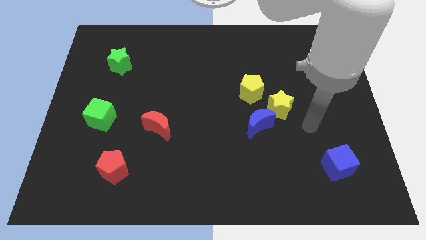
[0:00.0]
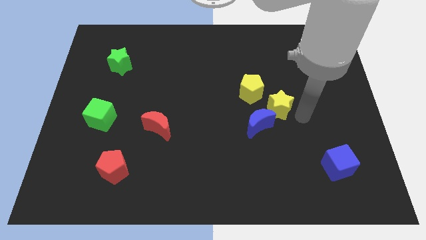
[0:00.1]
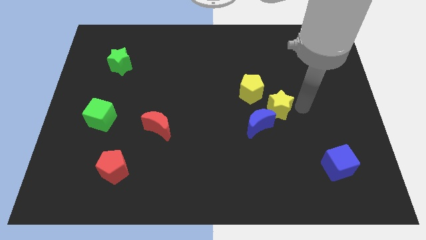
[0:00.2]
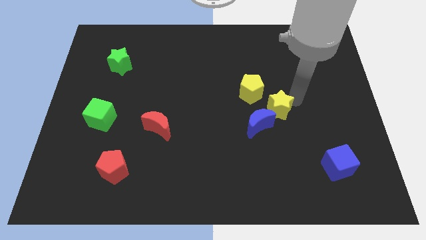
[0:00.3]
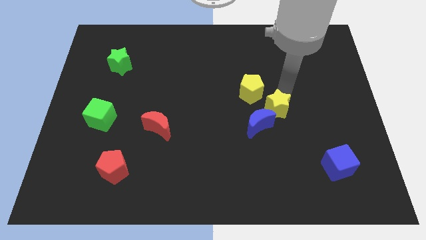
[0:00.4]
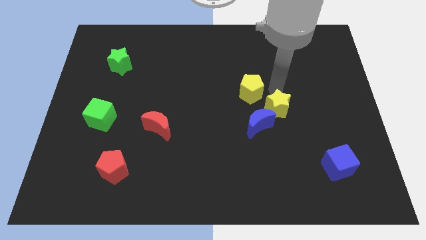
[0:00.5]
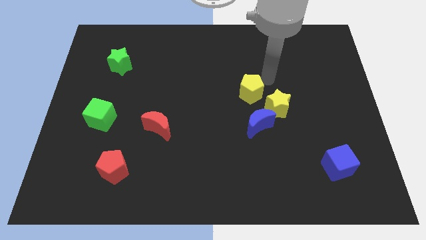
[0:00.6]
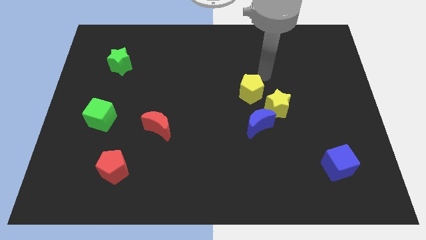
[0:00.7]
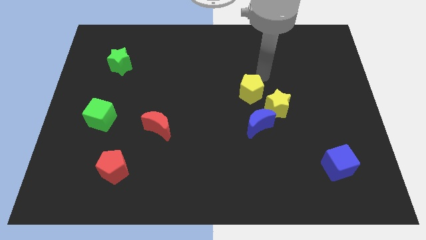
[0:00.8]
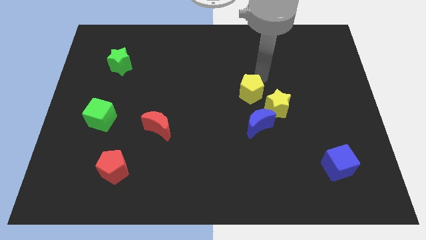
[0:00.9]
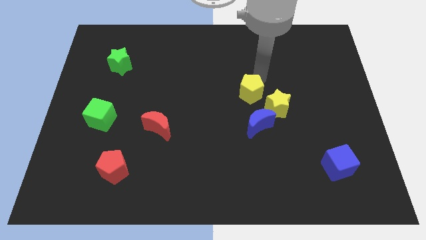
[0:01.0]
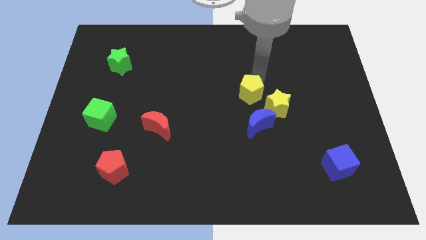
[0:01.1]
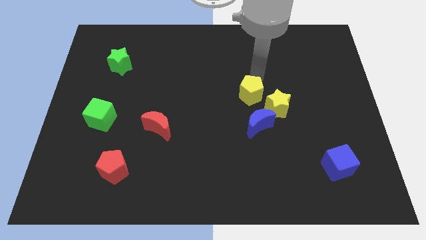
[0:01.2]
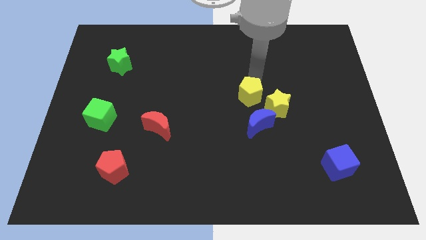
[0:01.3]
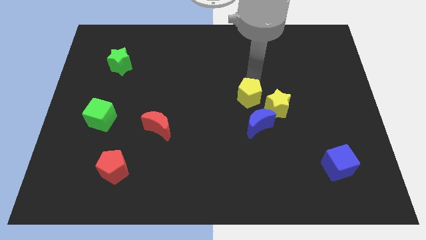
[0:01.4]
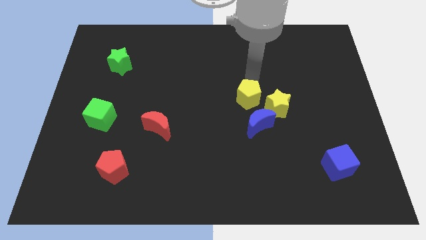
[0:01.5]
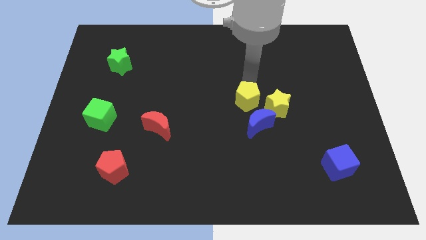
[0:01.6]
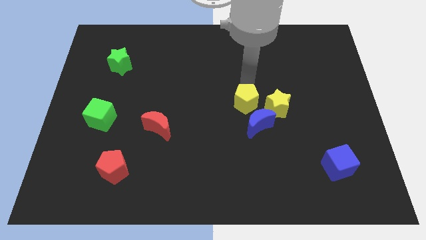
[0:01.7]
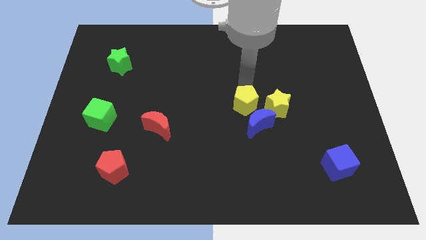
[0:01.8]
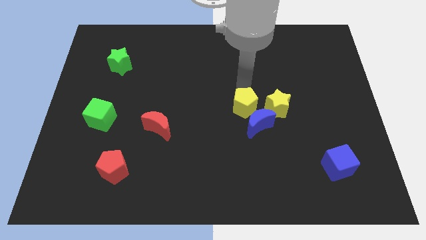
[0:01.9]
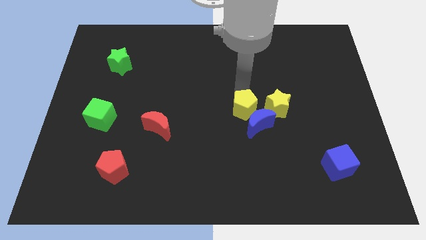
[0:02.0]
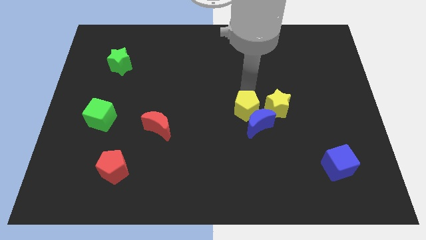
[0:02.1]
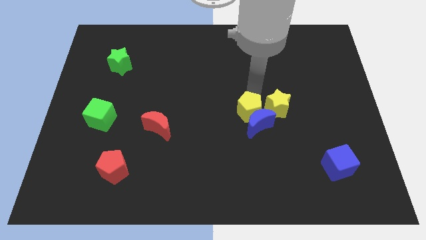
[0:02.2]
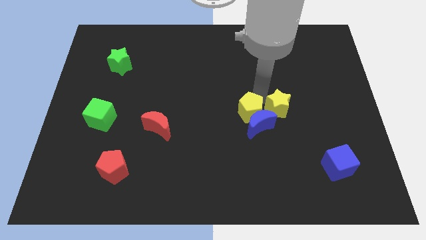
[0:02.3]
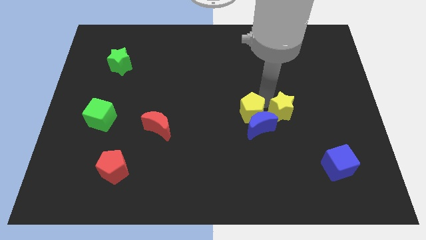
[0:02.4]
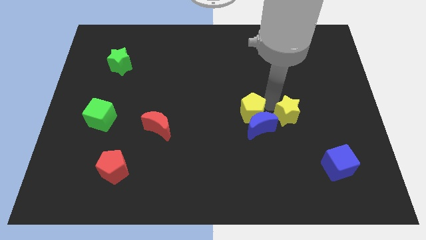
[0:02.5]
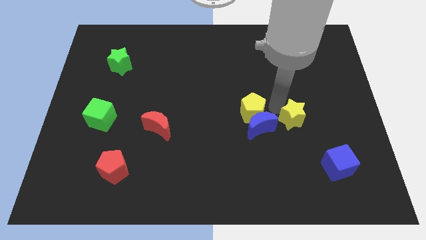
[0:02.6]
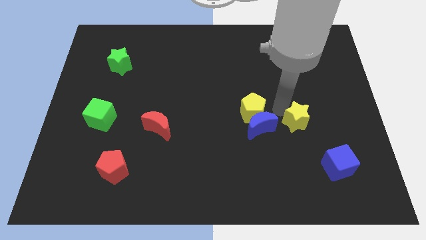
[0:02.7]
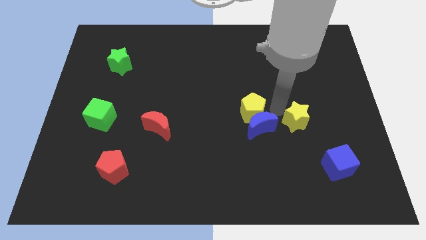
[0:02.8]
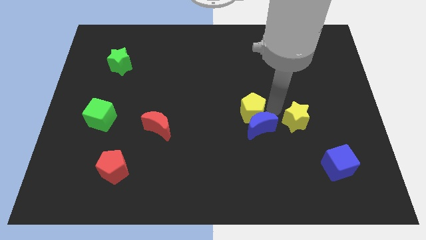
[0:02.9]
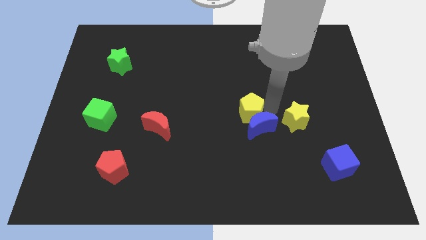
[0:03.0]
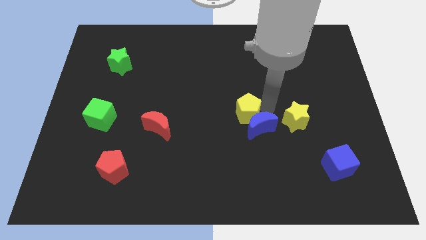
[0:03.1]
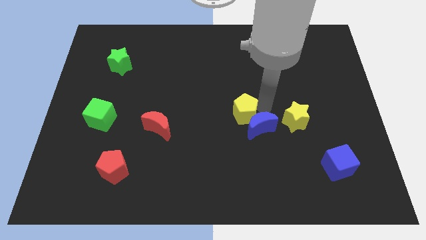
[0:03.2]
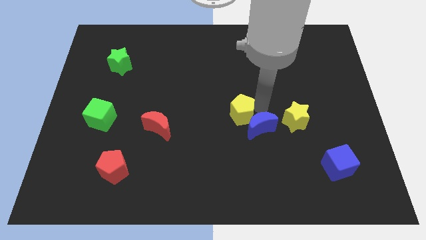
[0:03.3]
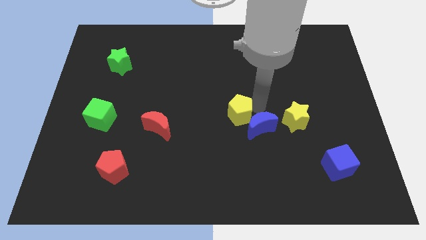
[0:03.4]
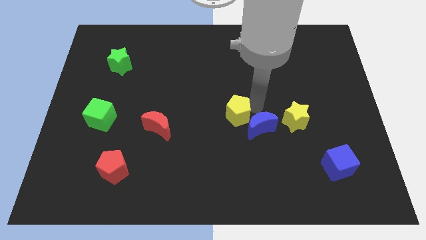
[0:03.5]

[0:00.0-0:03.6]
move the yellow pentagon down and to the left somewhat

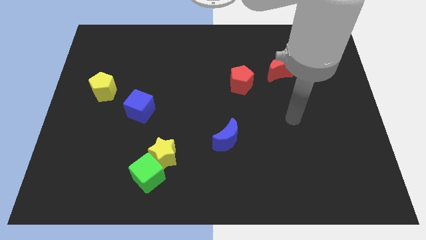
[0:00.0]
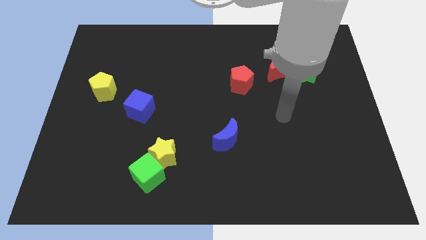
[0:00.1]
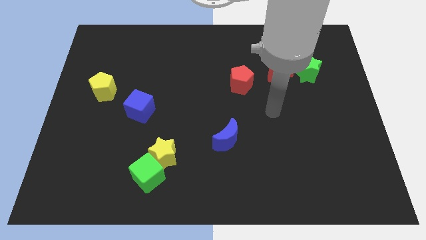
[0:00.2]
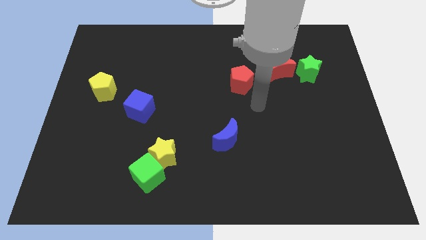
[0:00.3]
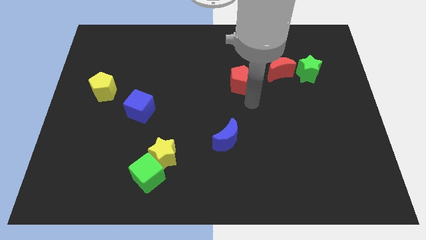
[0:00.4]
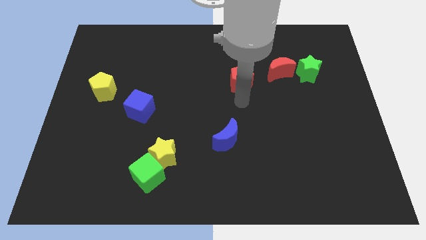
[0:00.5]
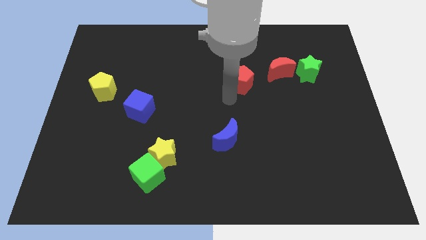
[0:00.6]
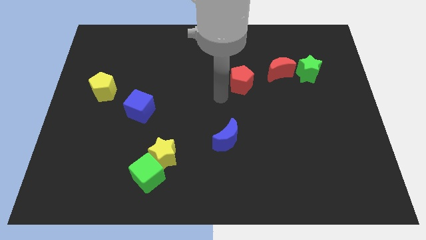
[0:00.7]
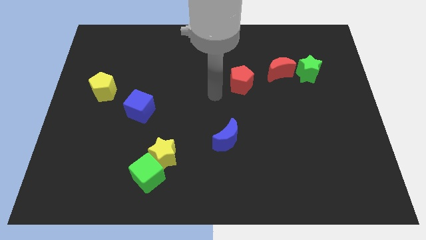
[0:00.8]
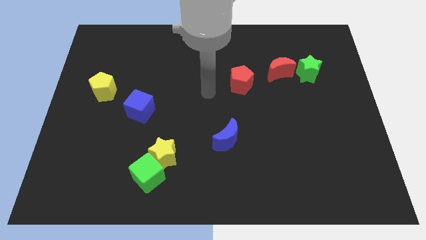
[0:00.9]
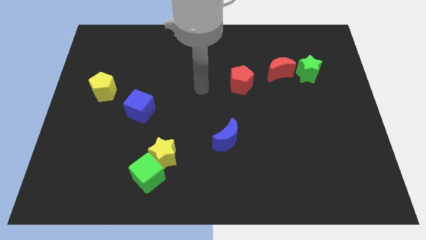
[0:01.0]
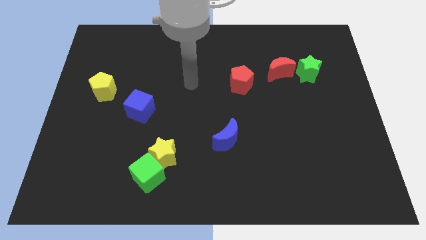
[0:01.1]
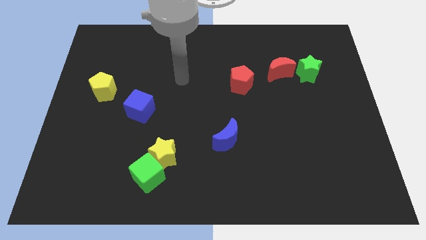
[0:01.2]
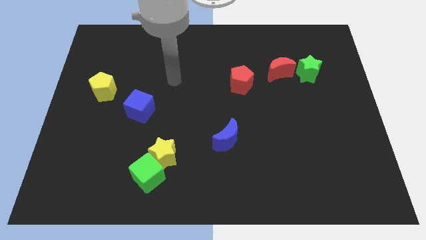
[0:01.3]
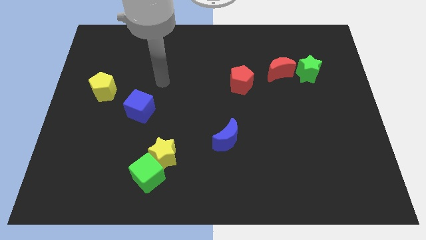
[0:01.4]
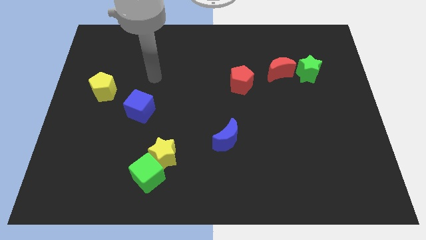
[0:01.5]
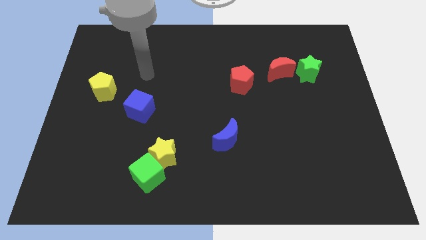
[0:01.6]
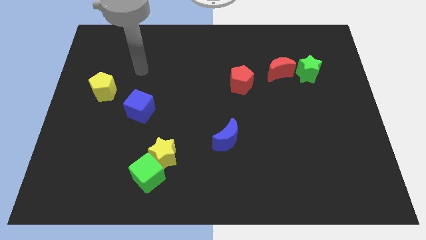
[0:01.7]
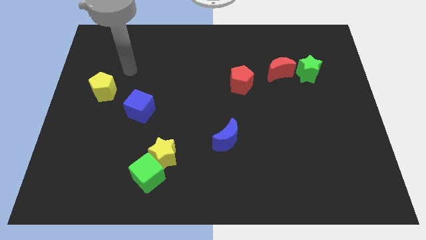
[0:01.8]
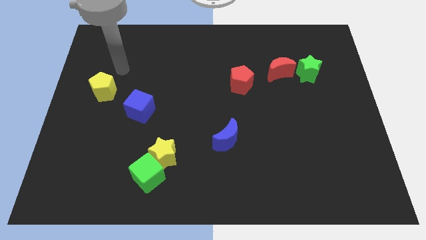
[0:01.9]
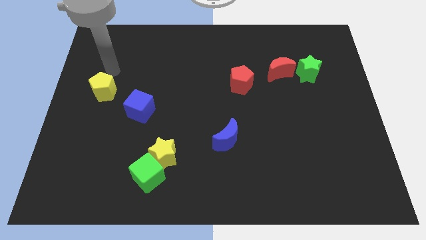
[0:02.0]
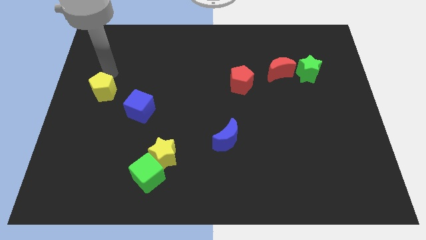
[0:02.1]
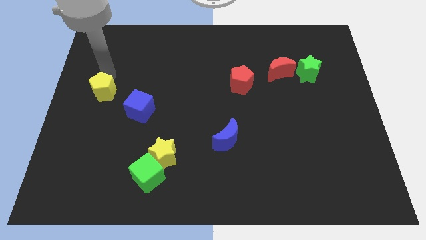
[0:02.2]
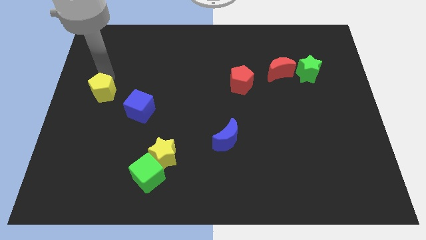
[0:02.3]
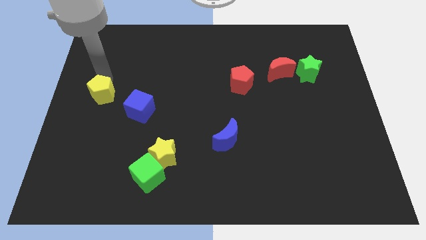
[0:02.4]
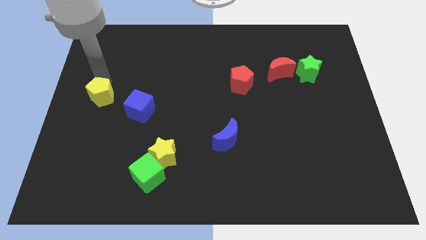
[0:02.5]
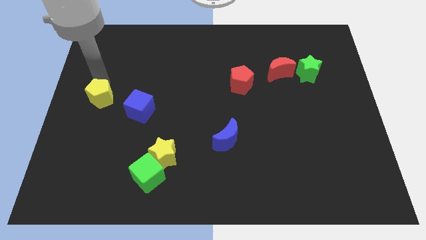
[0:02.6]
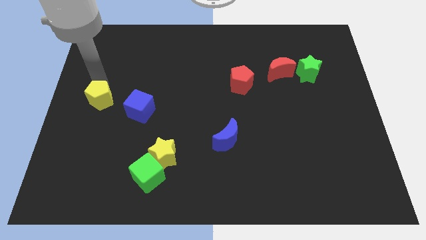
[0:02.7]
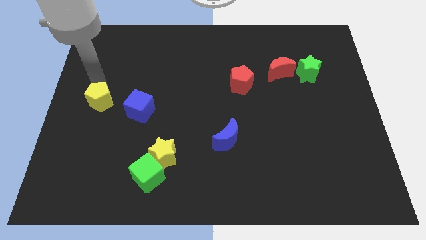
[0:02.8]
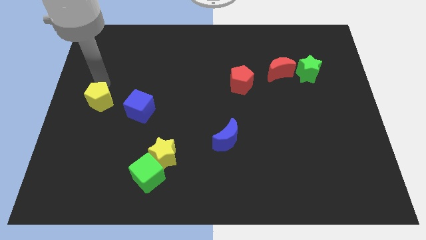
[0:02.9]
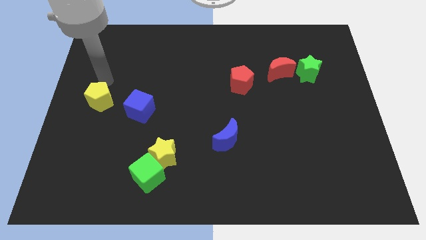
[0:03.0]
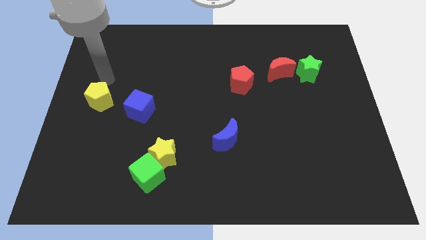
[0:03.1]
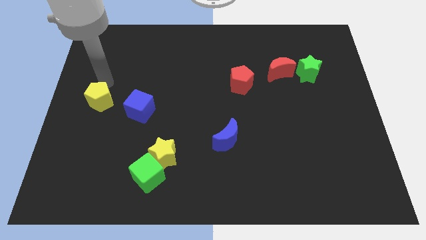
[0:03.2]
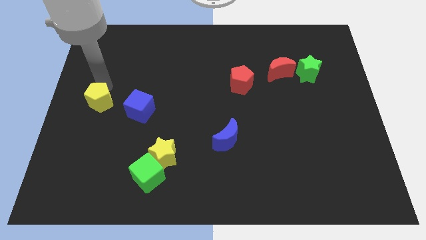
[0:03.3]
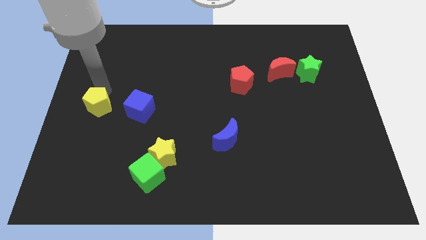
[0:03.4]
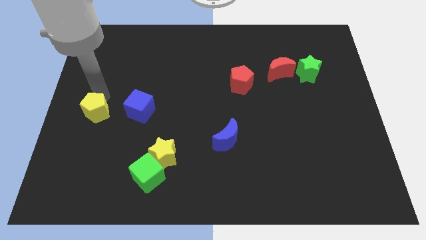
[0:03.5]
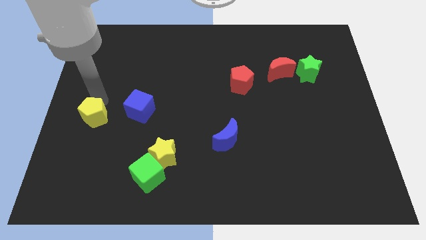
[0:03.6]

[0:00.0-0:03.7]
slightly slide the yellow pentagon down

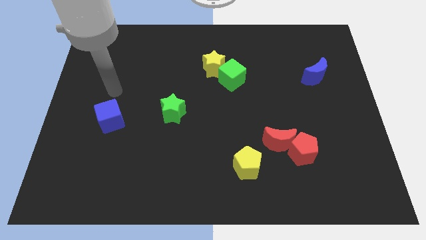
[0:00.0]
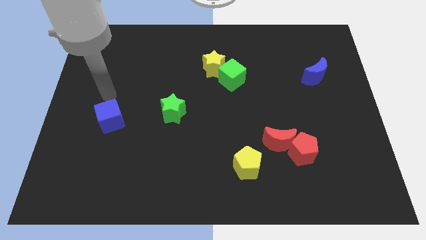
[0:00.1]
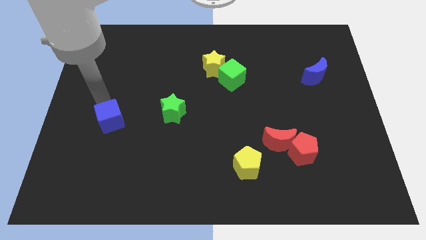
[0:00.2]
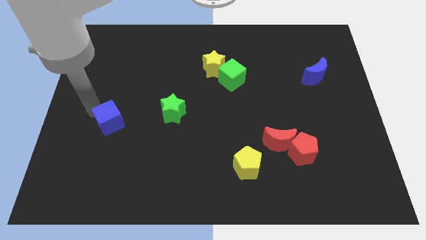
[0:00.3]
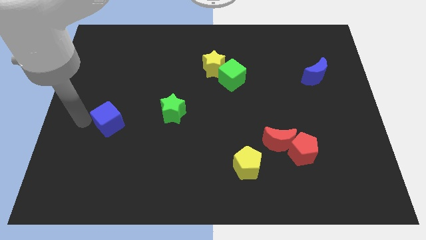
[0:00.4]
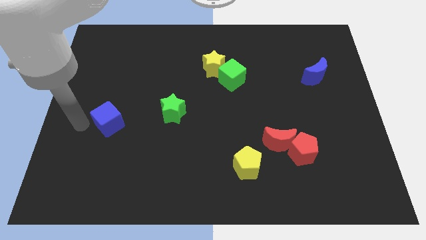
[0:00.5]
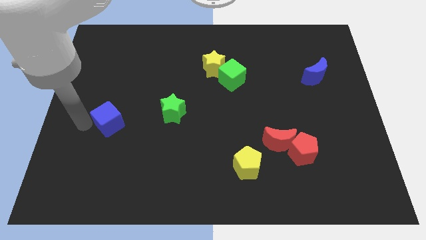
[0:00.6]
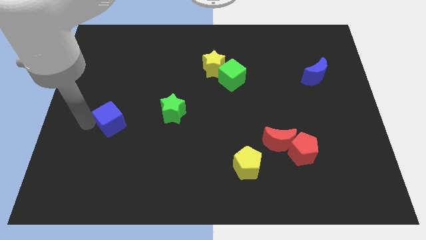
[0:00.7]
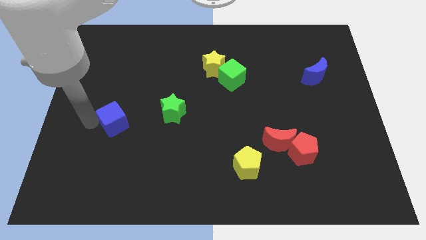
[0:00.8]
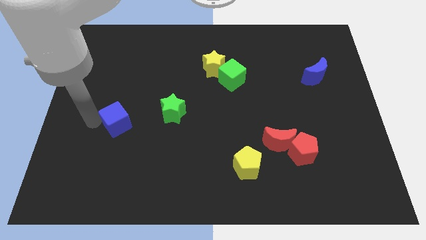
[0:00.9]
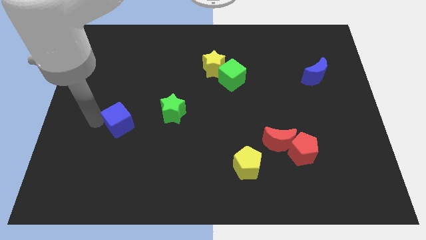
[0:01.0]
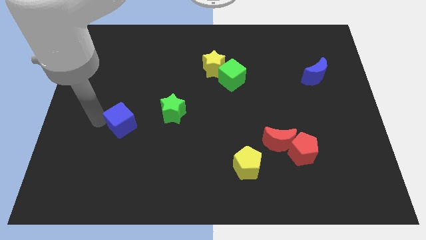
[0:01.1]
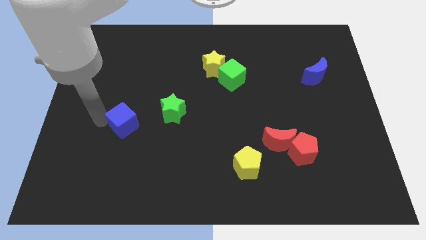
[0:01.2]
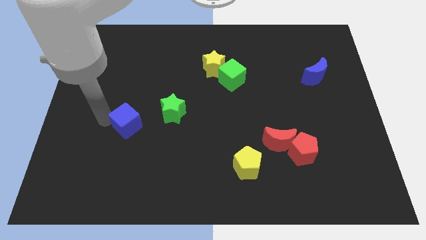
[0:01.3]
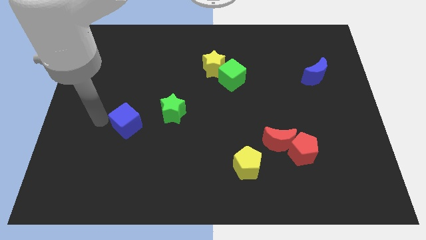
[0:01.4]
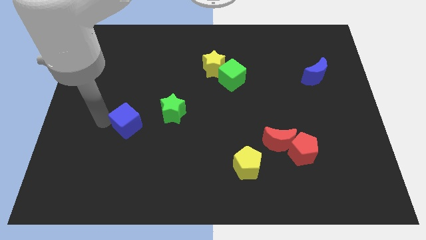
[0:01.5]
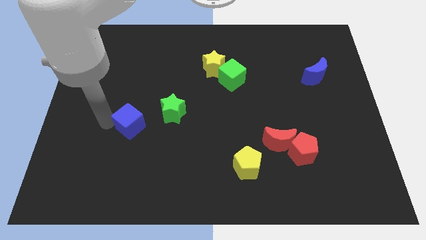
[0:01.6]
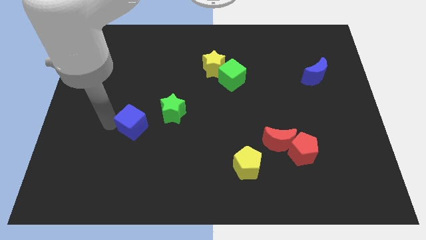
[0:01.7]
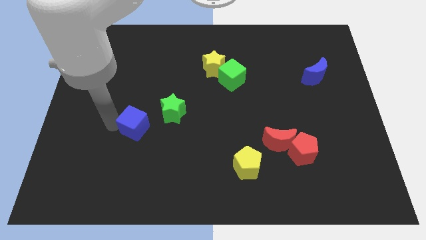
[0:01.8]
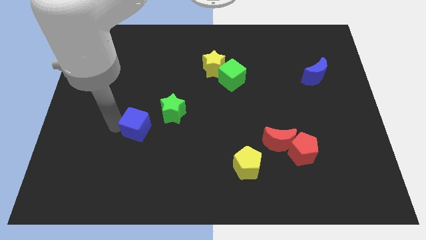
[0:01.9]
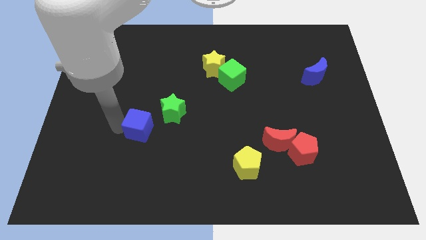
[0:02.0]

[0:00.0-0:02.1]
slightly slide the blue cube to the right
